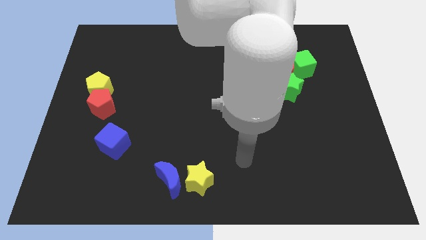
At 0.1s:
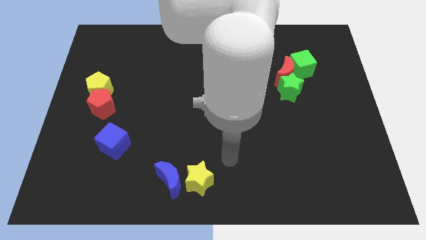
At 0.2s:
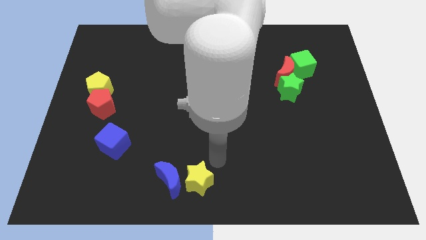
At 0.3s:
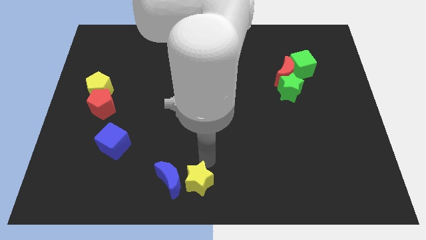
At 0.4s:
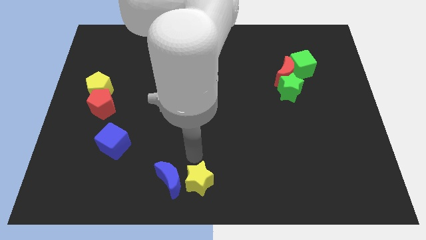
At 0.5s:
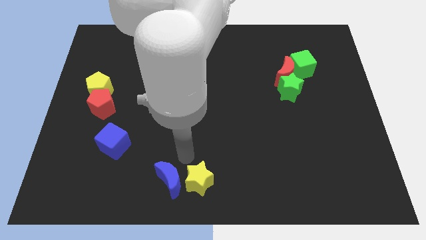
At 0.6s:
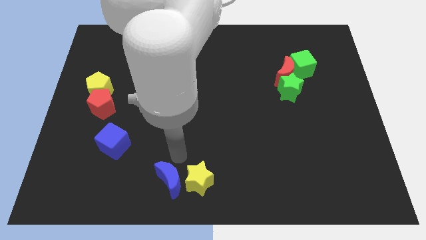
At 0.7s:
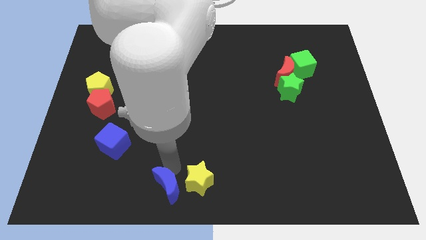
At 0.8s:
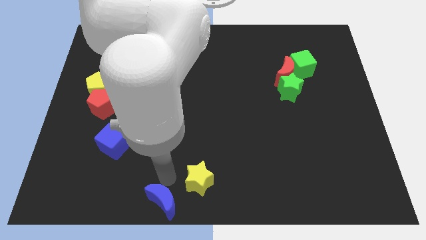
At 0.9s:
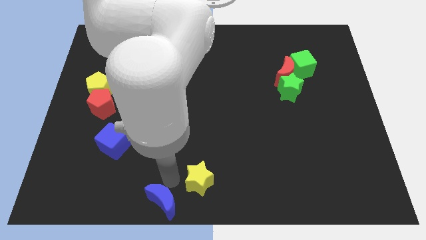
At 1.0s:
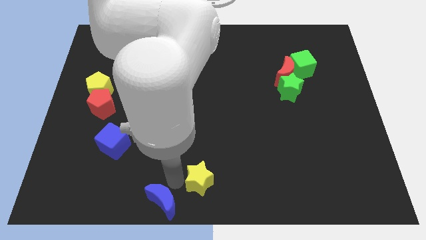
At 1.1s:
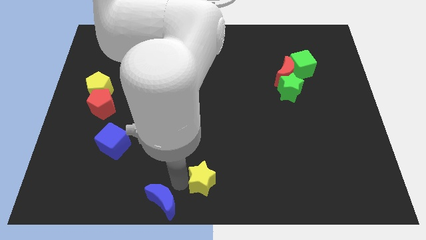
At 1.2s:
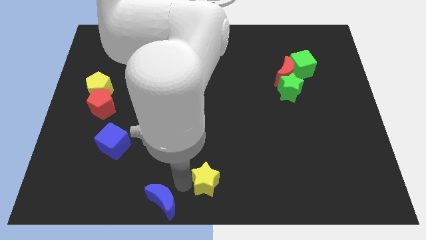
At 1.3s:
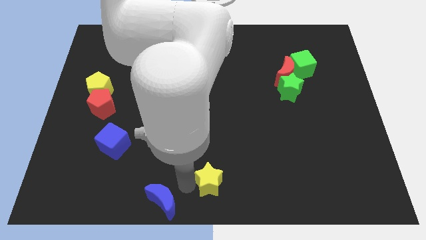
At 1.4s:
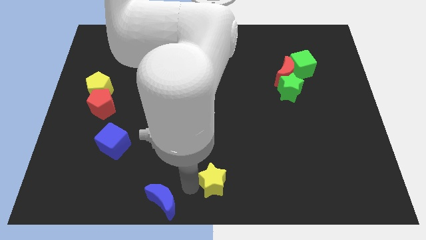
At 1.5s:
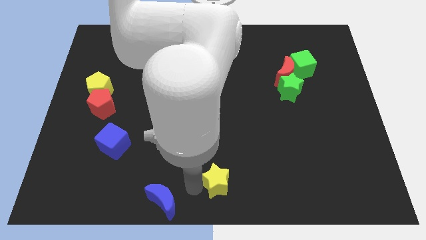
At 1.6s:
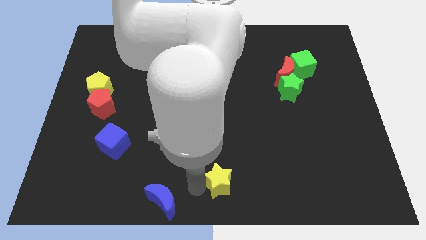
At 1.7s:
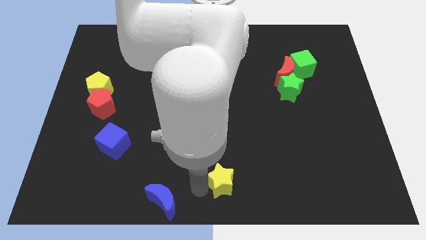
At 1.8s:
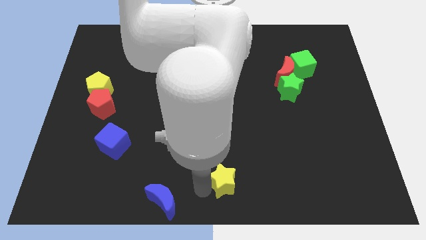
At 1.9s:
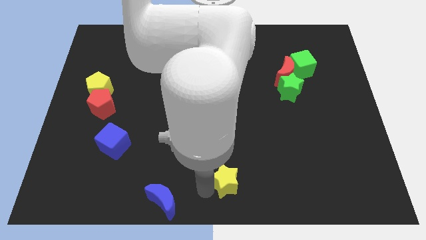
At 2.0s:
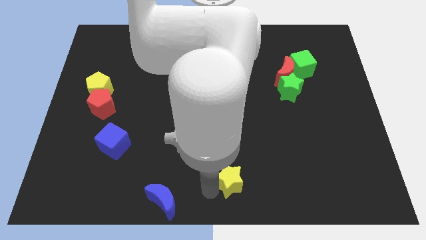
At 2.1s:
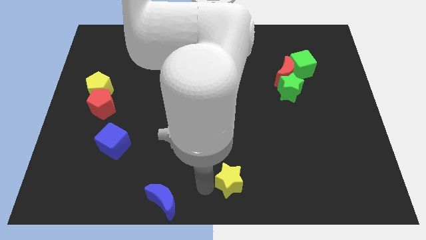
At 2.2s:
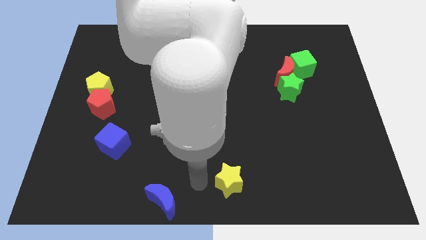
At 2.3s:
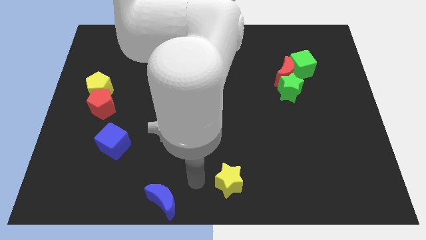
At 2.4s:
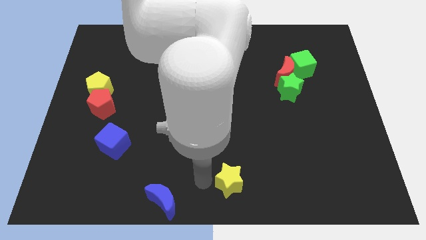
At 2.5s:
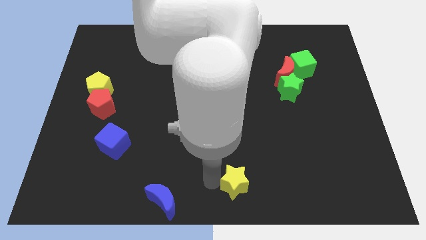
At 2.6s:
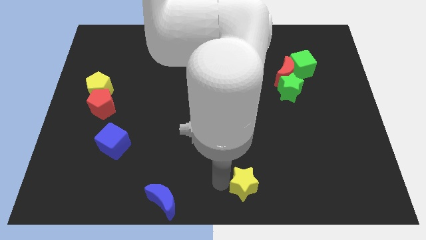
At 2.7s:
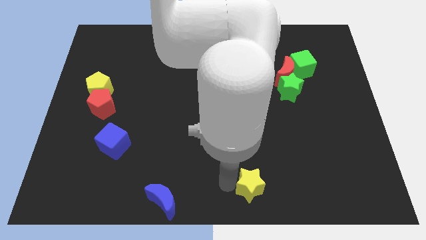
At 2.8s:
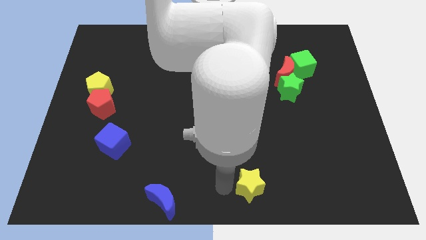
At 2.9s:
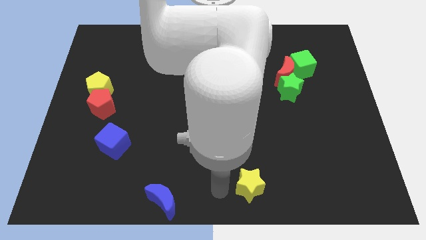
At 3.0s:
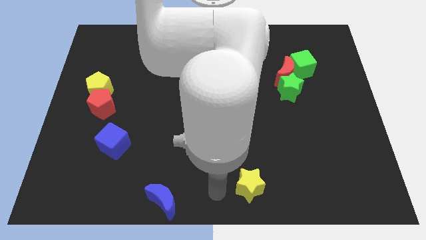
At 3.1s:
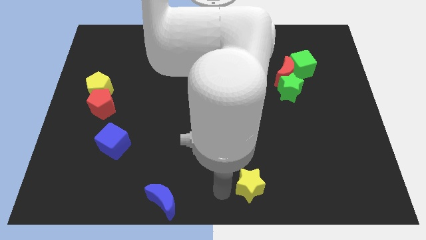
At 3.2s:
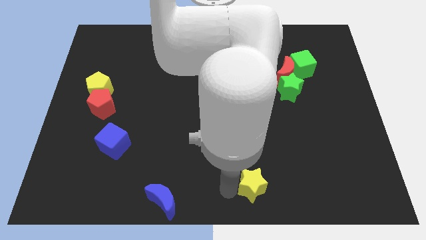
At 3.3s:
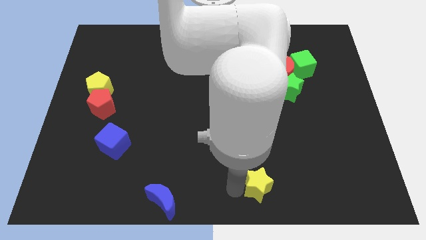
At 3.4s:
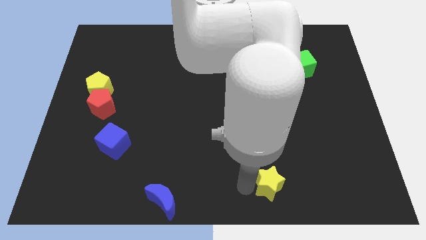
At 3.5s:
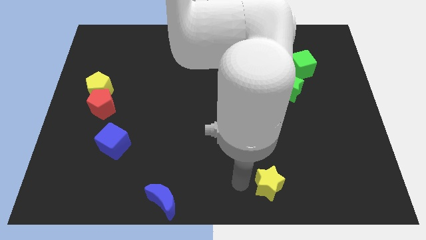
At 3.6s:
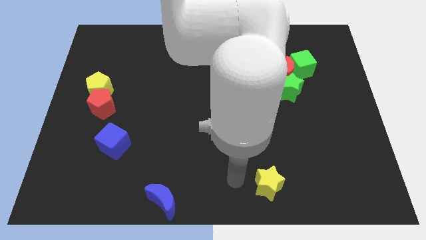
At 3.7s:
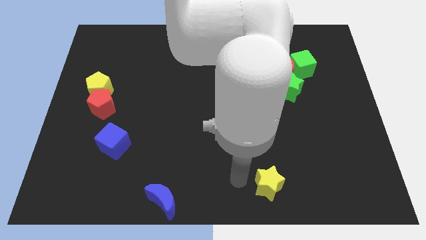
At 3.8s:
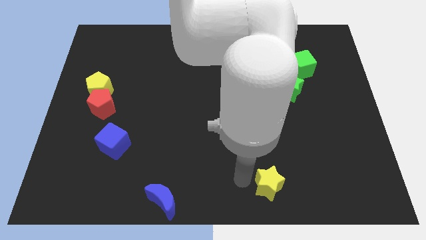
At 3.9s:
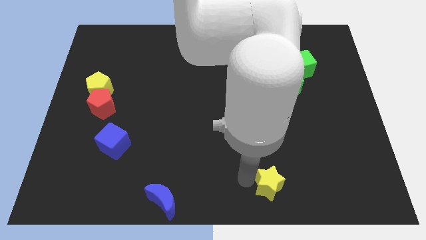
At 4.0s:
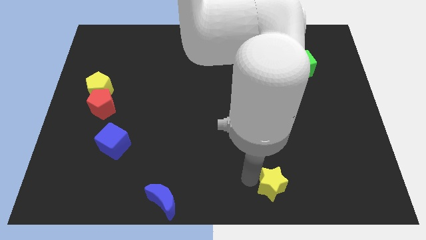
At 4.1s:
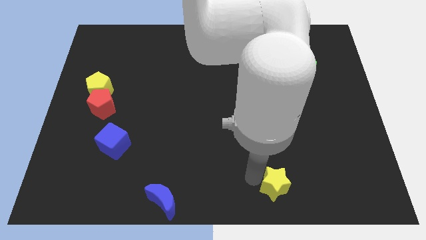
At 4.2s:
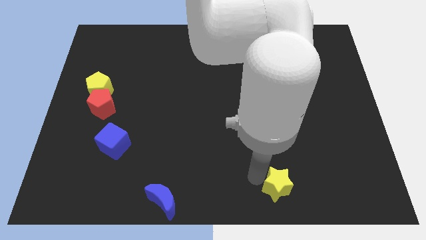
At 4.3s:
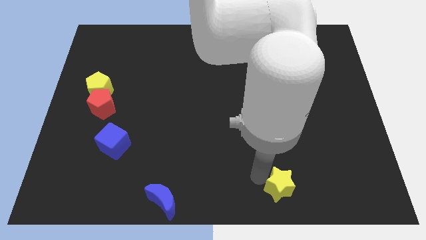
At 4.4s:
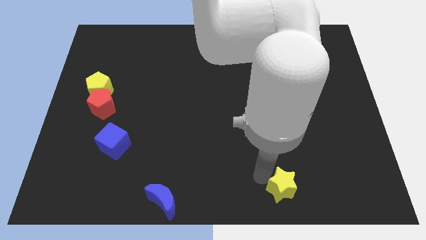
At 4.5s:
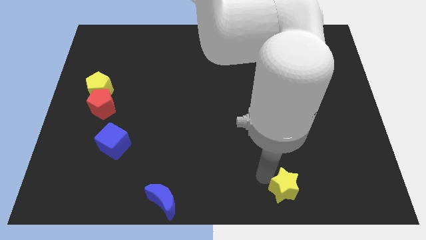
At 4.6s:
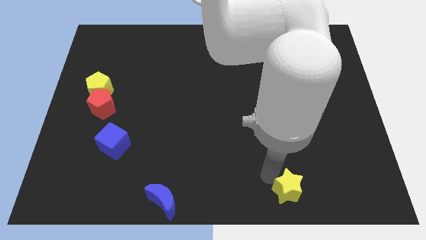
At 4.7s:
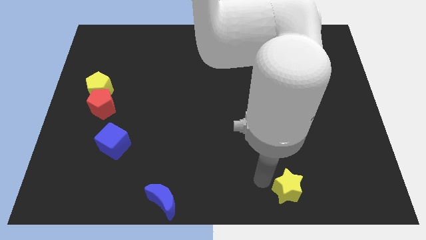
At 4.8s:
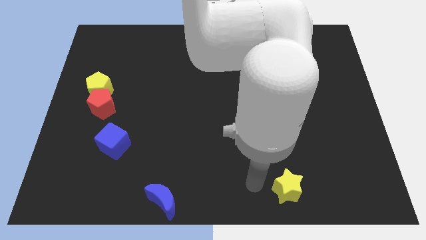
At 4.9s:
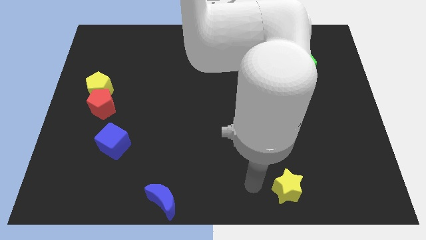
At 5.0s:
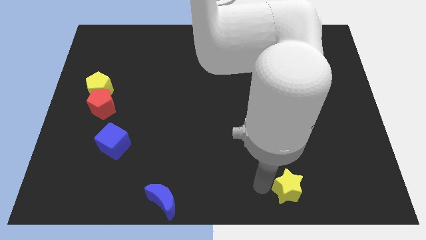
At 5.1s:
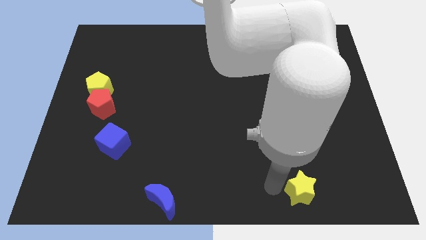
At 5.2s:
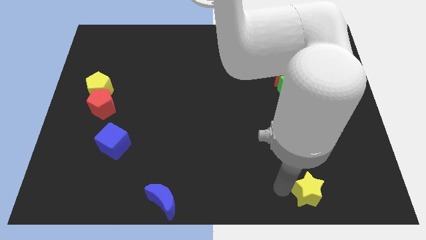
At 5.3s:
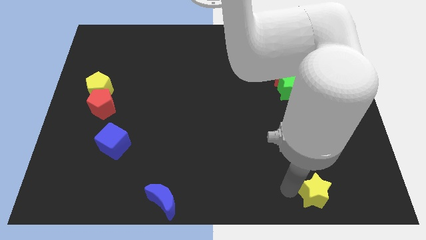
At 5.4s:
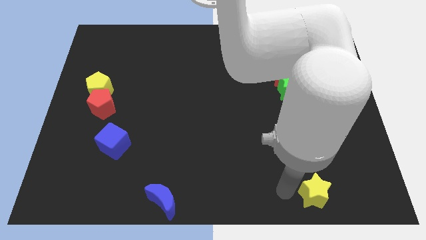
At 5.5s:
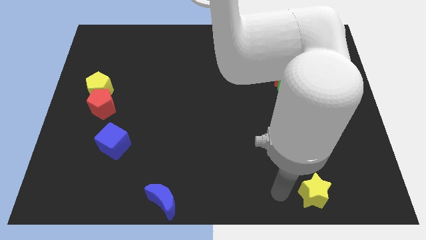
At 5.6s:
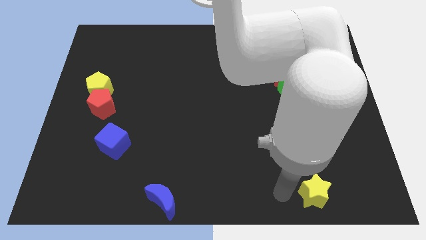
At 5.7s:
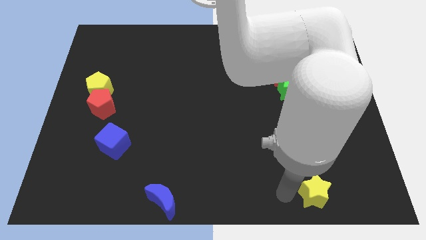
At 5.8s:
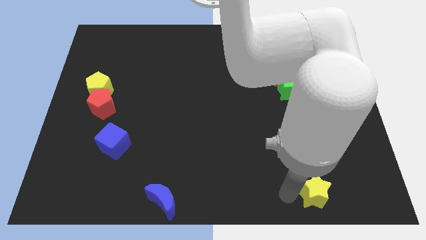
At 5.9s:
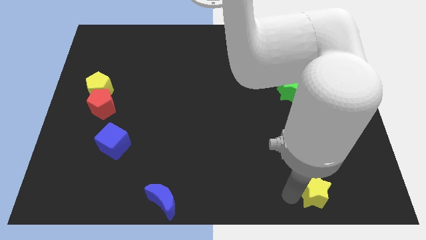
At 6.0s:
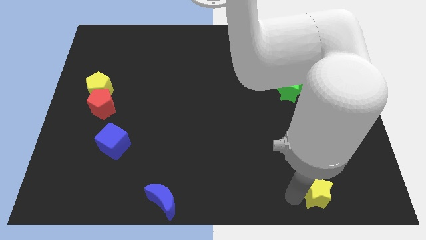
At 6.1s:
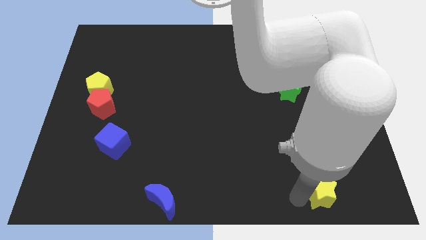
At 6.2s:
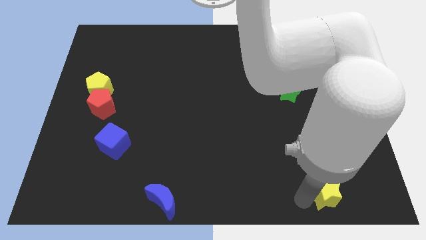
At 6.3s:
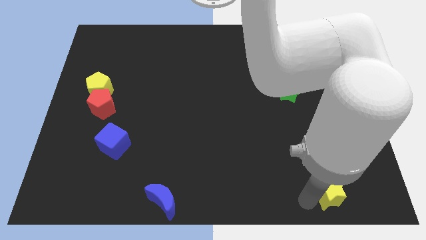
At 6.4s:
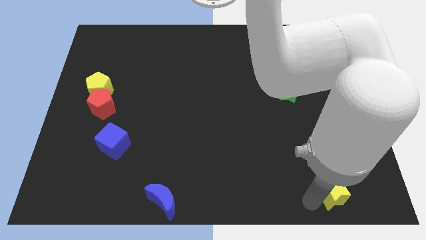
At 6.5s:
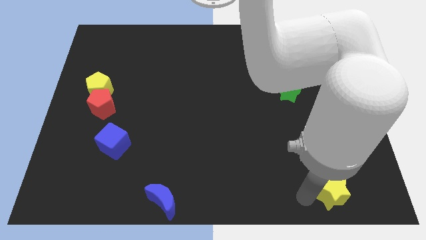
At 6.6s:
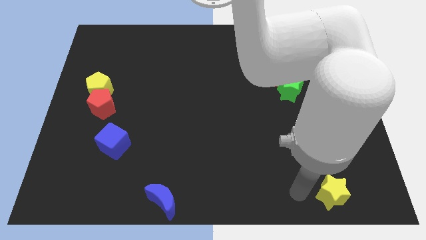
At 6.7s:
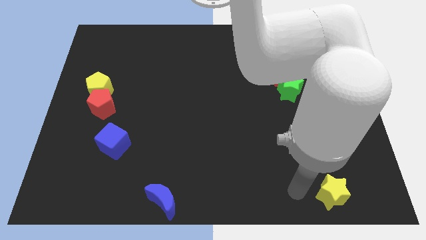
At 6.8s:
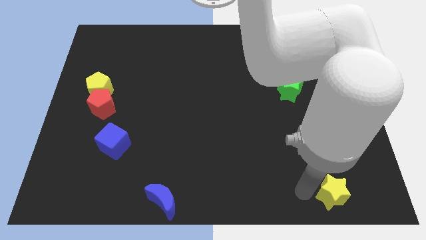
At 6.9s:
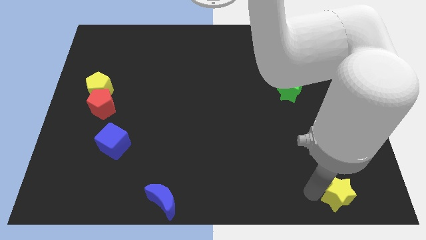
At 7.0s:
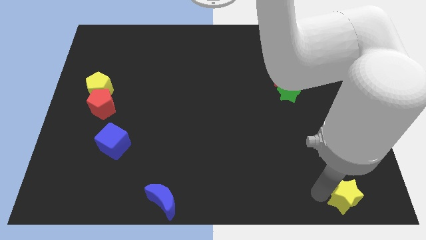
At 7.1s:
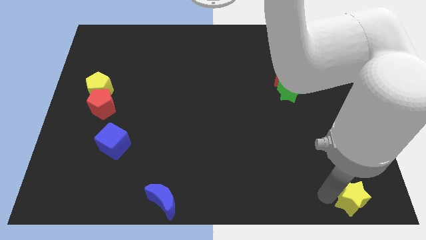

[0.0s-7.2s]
move the yellow star to the bottom right of the board
